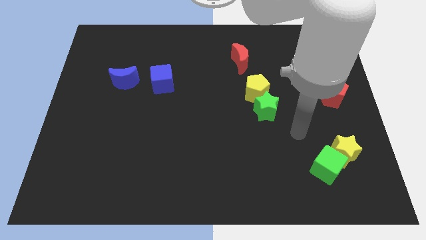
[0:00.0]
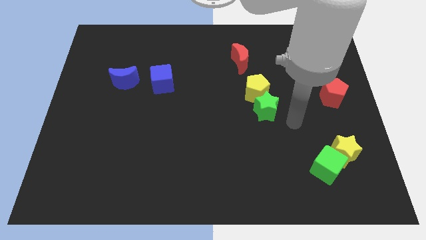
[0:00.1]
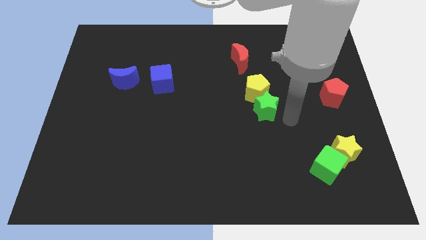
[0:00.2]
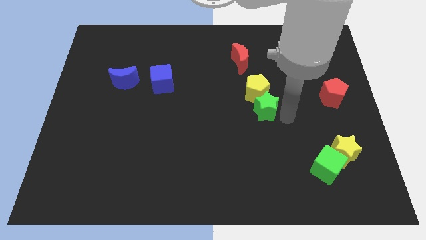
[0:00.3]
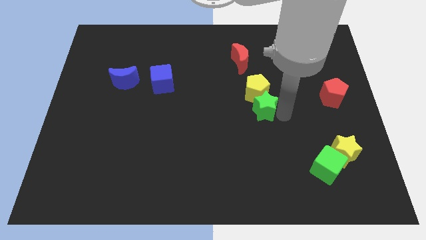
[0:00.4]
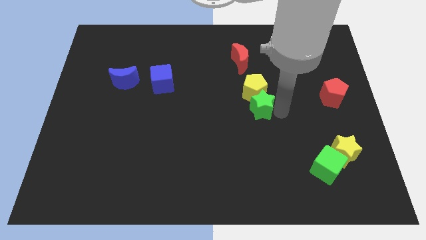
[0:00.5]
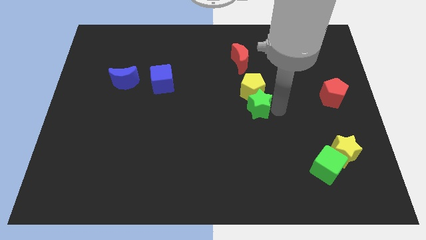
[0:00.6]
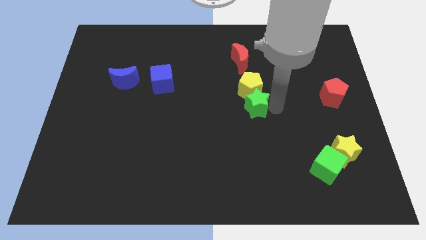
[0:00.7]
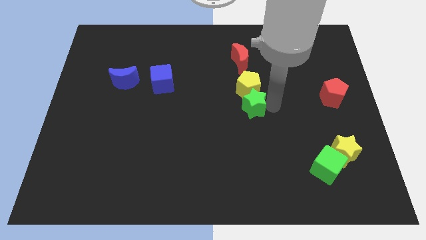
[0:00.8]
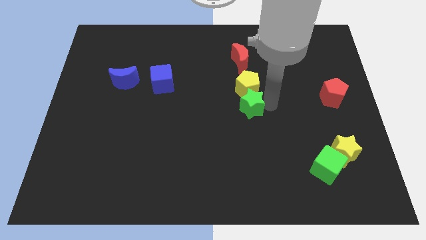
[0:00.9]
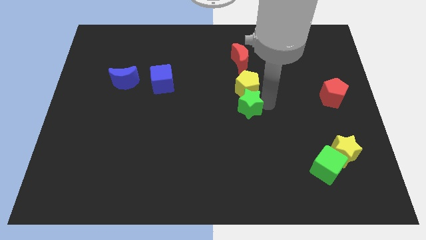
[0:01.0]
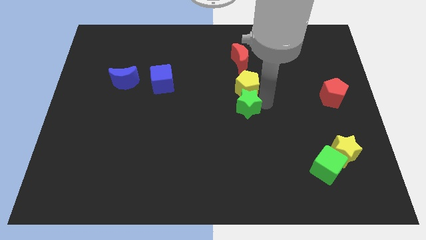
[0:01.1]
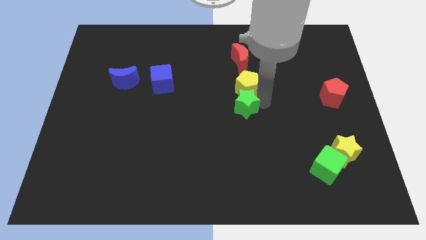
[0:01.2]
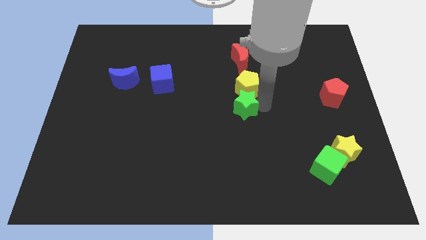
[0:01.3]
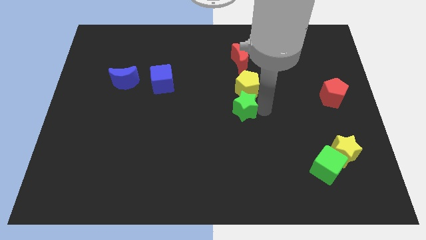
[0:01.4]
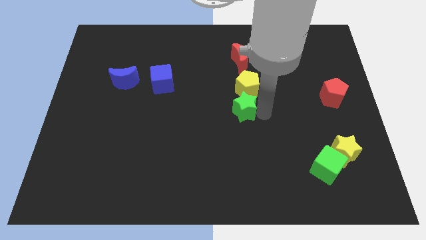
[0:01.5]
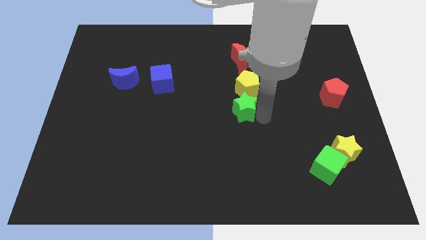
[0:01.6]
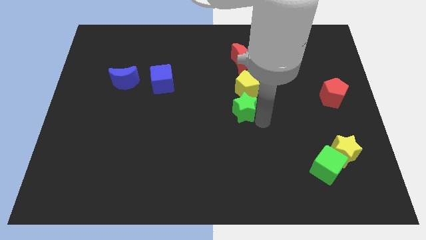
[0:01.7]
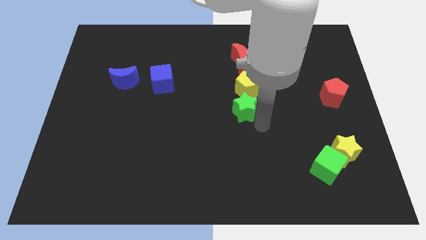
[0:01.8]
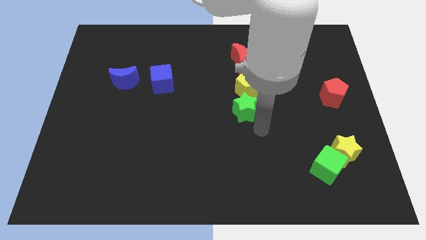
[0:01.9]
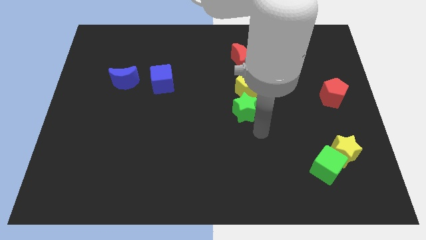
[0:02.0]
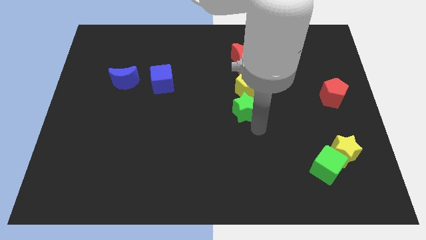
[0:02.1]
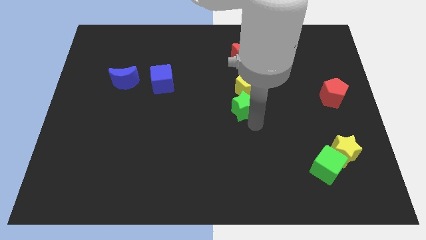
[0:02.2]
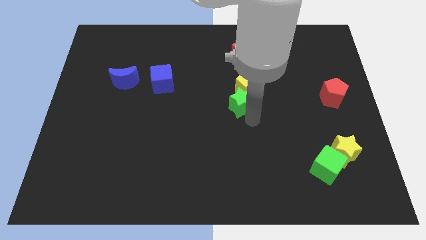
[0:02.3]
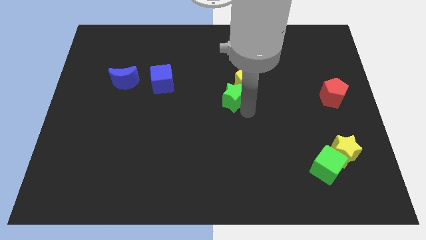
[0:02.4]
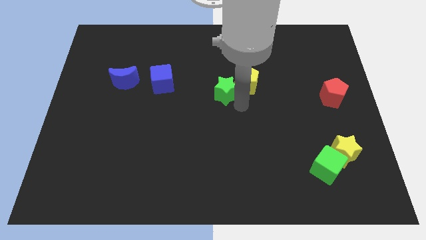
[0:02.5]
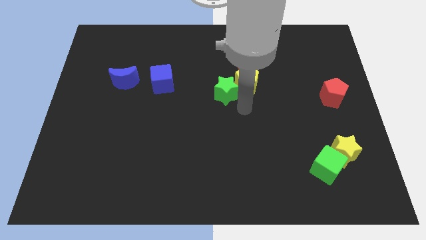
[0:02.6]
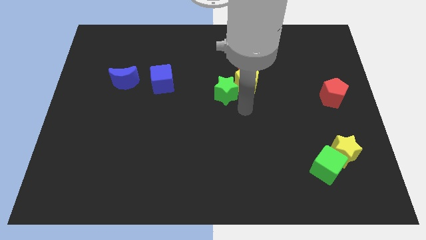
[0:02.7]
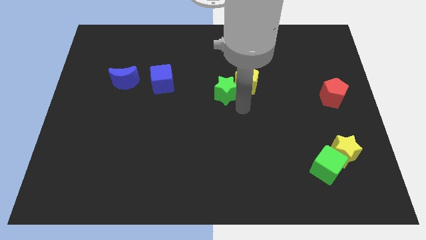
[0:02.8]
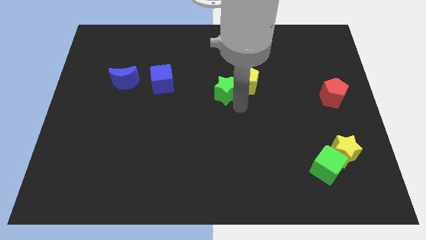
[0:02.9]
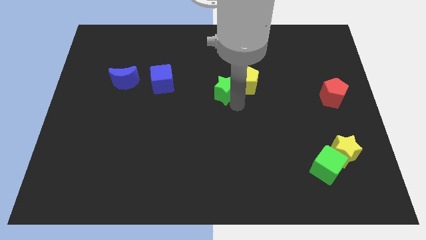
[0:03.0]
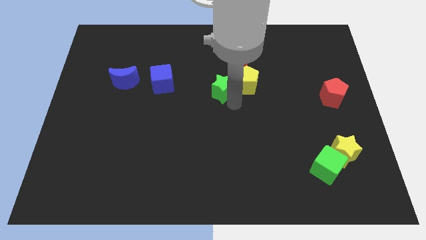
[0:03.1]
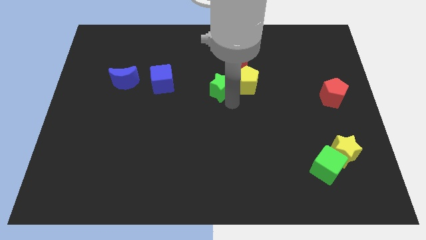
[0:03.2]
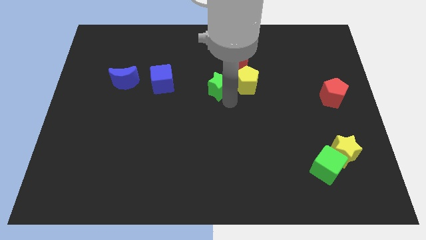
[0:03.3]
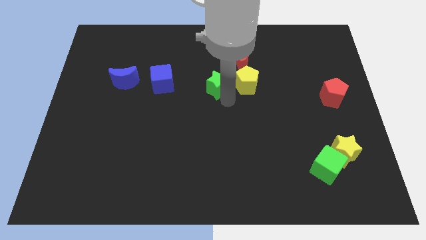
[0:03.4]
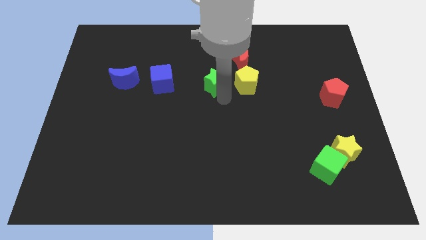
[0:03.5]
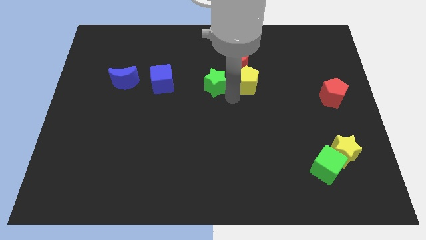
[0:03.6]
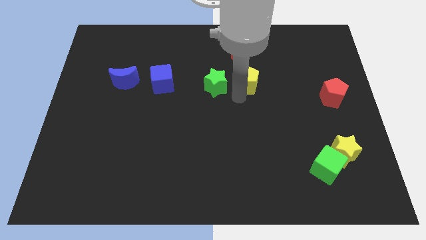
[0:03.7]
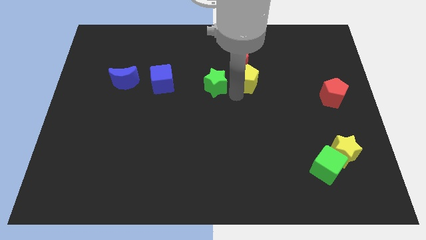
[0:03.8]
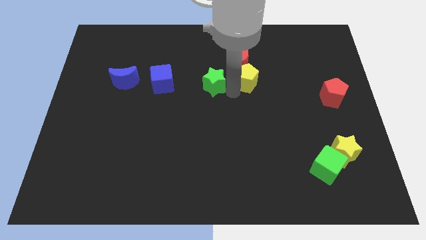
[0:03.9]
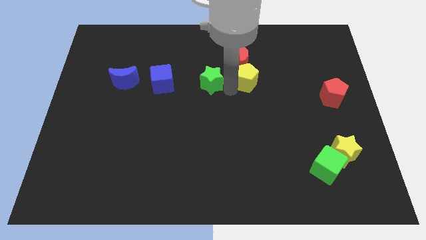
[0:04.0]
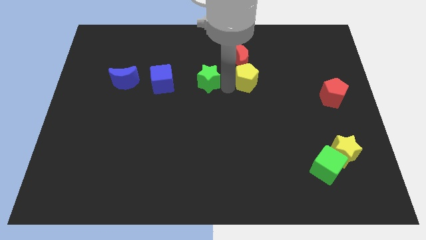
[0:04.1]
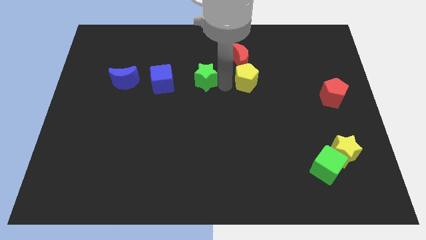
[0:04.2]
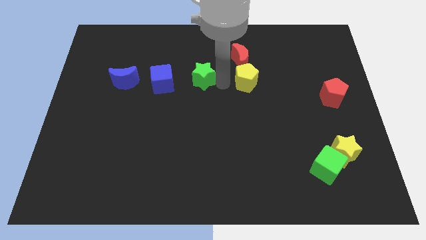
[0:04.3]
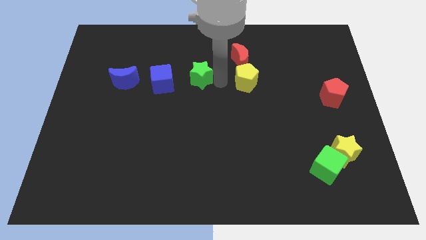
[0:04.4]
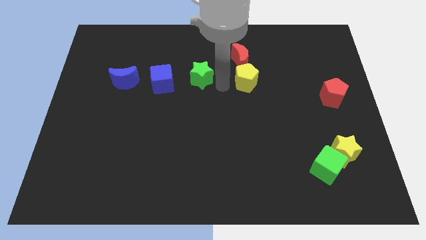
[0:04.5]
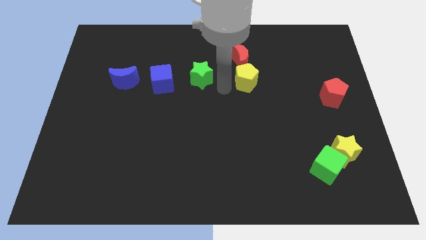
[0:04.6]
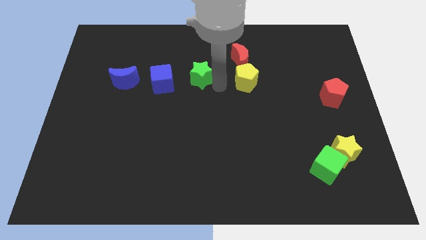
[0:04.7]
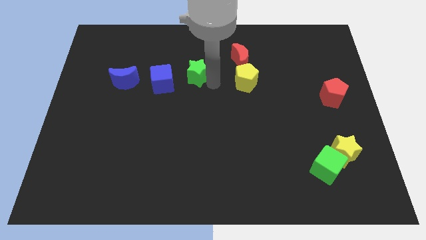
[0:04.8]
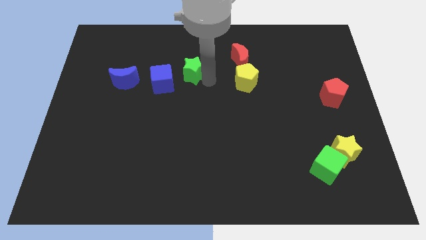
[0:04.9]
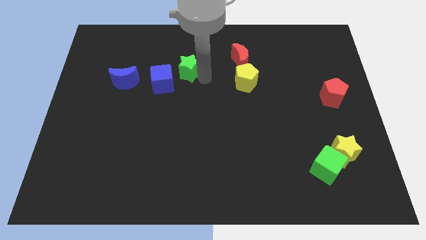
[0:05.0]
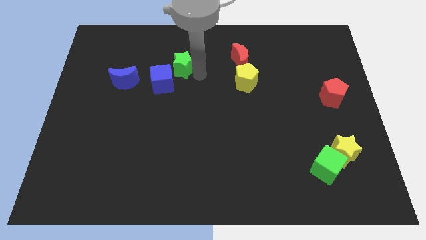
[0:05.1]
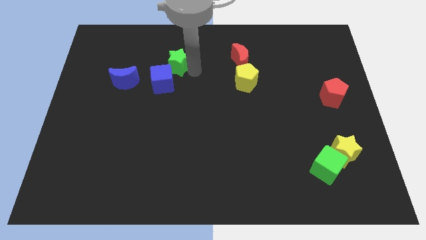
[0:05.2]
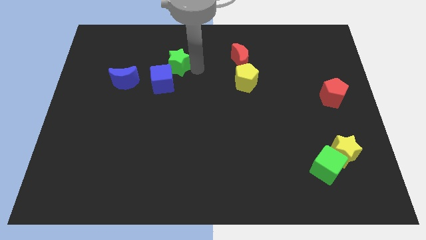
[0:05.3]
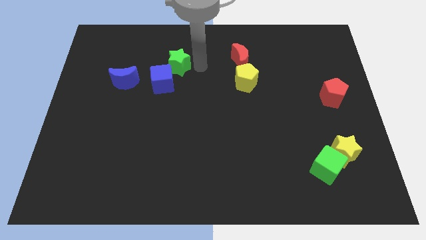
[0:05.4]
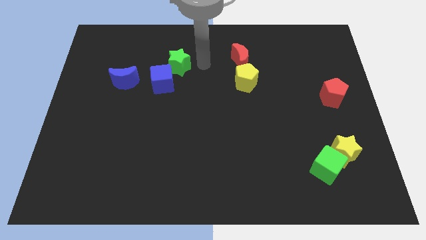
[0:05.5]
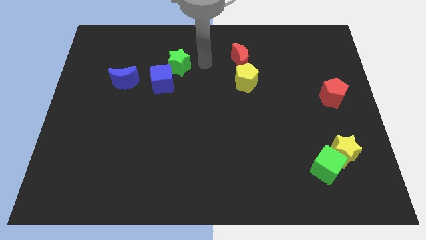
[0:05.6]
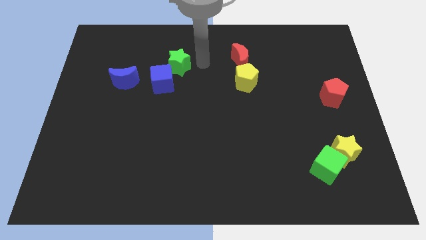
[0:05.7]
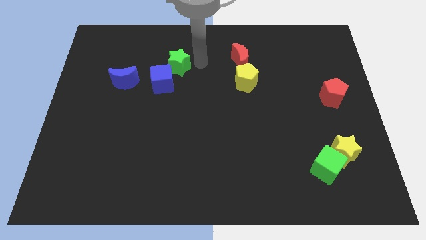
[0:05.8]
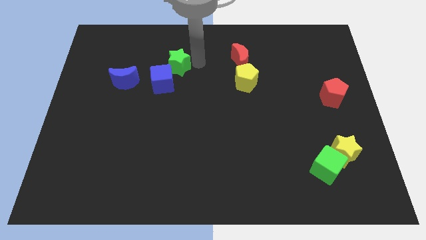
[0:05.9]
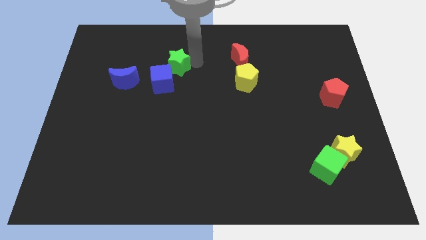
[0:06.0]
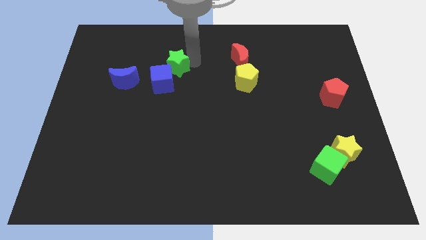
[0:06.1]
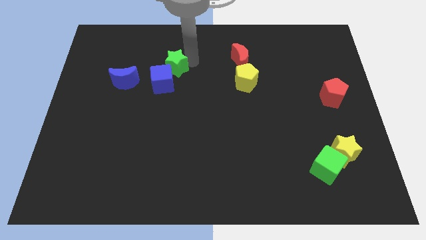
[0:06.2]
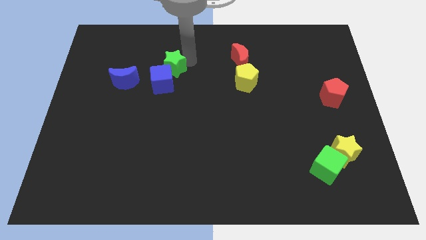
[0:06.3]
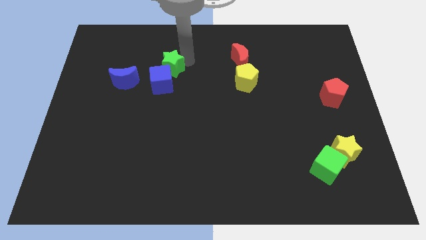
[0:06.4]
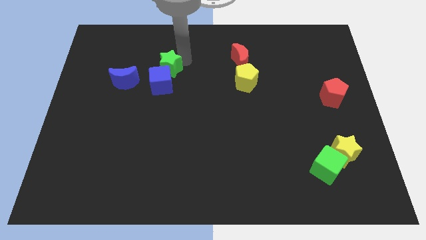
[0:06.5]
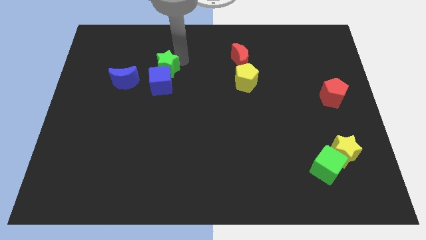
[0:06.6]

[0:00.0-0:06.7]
move the green star diagonally up and to the left of the blue cube
